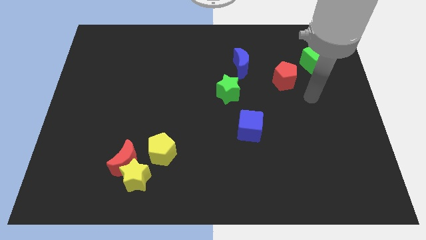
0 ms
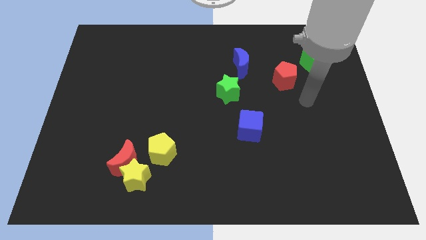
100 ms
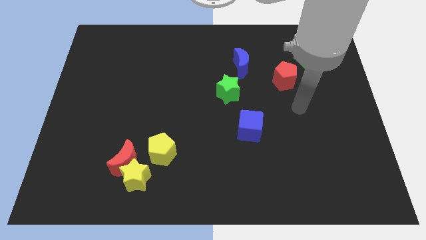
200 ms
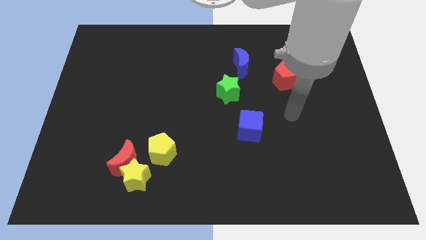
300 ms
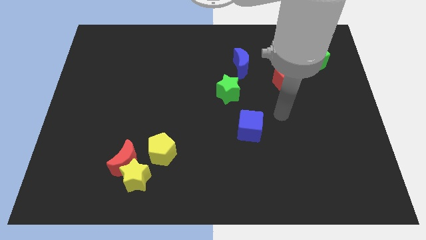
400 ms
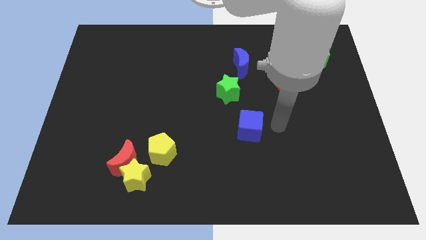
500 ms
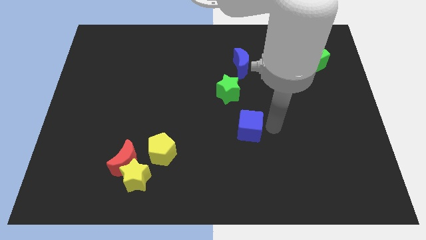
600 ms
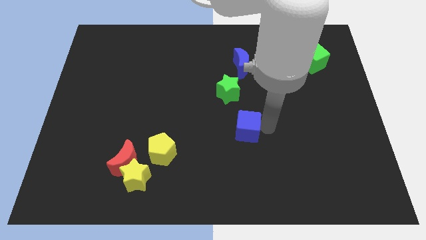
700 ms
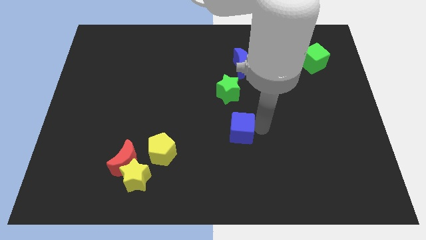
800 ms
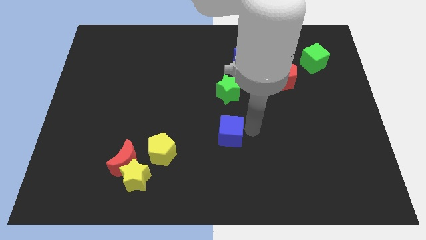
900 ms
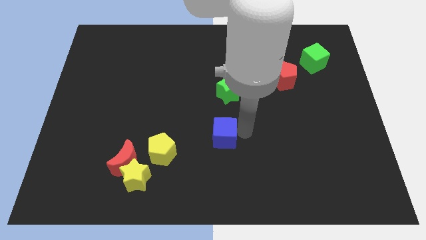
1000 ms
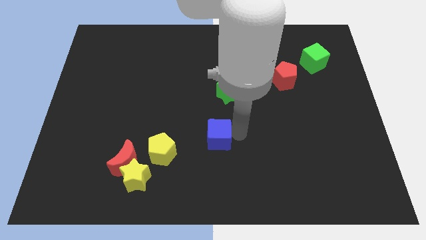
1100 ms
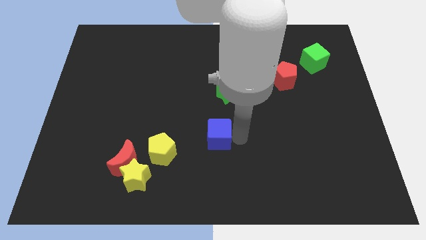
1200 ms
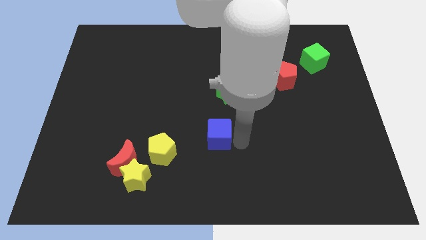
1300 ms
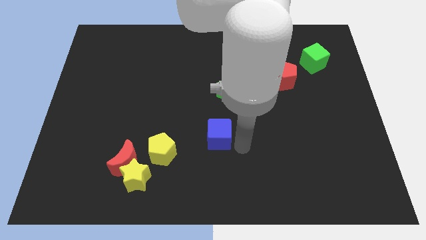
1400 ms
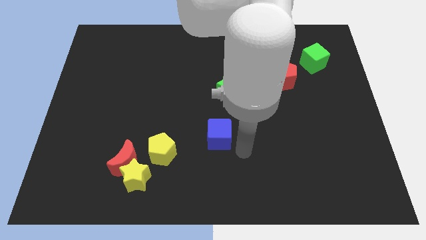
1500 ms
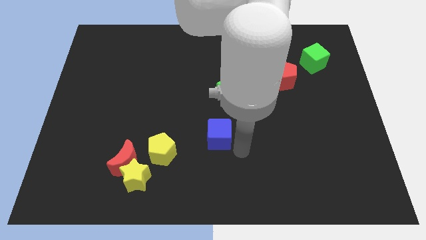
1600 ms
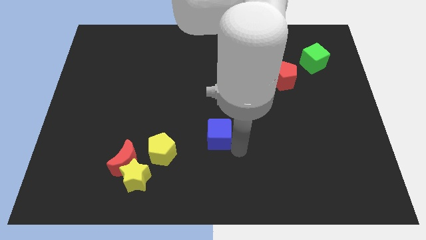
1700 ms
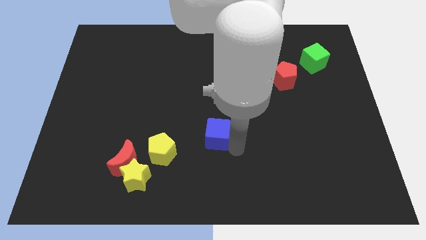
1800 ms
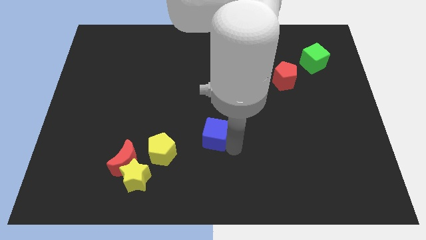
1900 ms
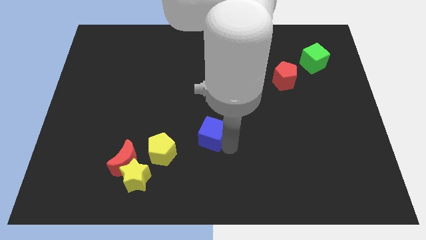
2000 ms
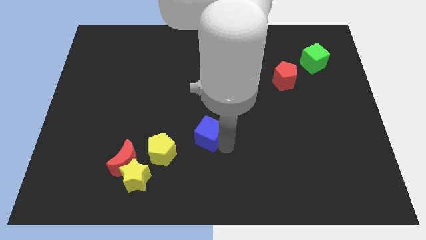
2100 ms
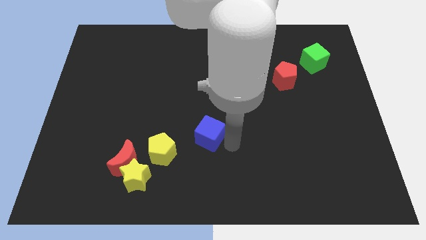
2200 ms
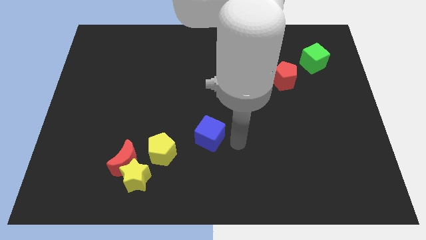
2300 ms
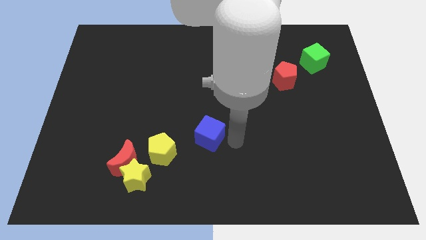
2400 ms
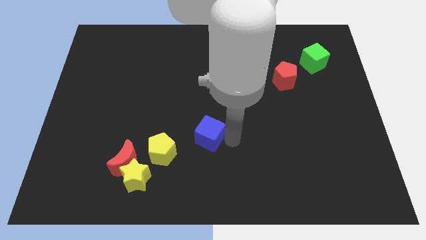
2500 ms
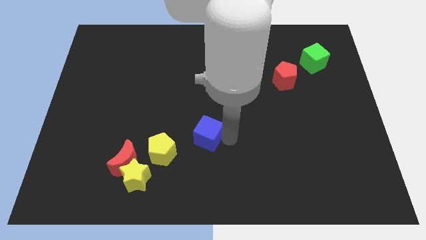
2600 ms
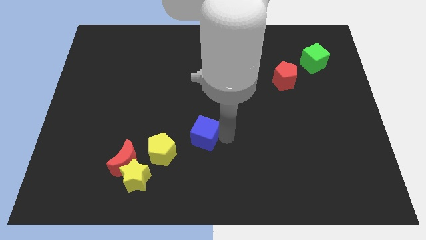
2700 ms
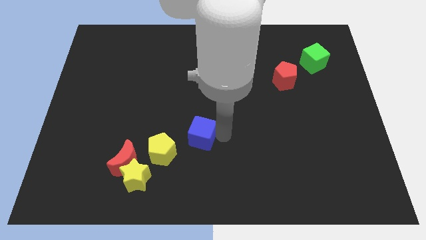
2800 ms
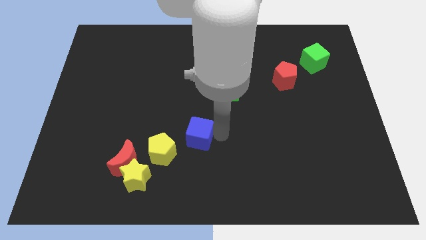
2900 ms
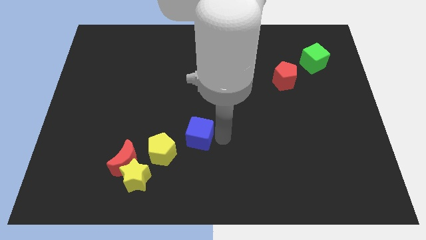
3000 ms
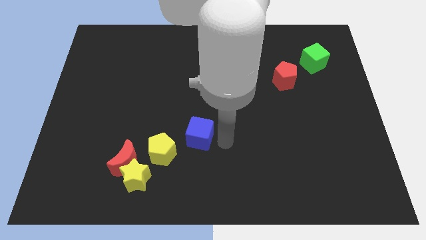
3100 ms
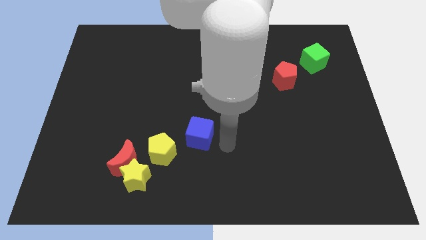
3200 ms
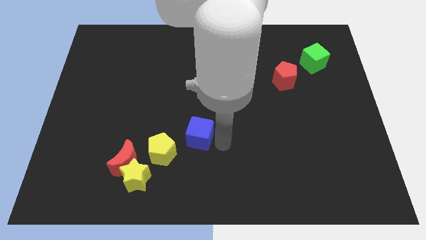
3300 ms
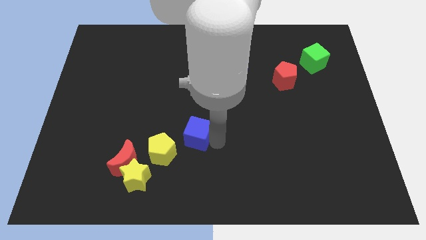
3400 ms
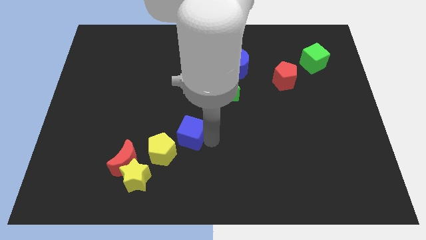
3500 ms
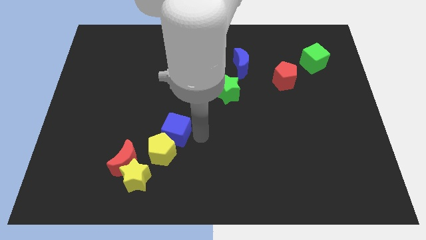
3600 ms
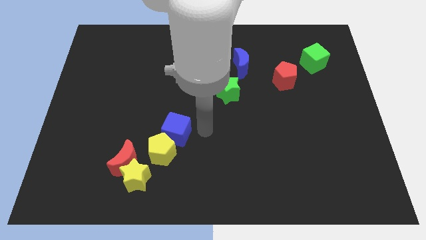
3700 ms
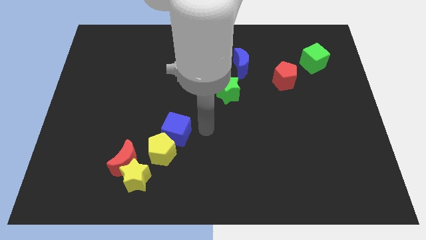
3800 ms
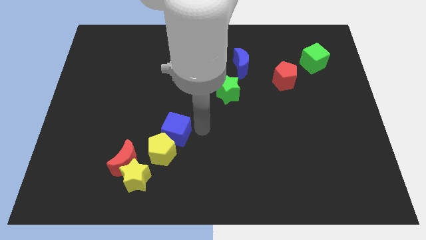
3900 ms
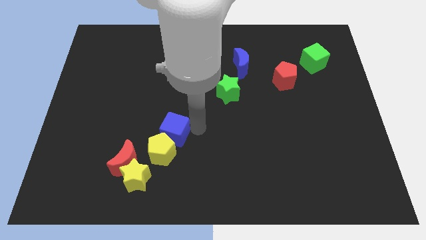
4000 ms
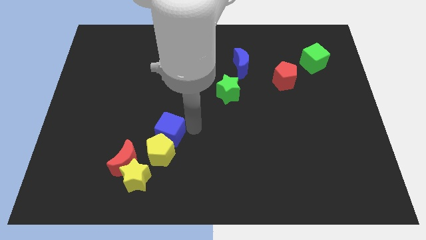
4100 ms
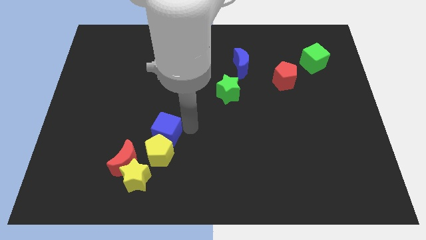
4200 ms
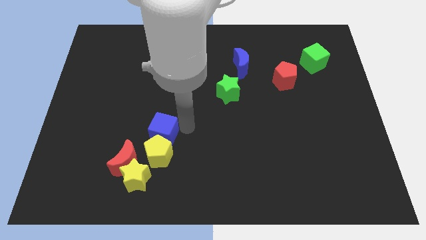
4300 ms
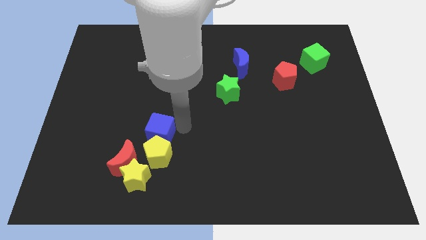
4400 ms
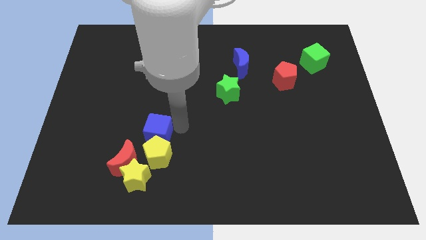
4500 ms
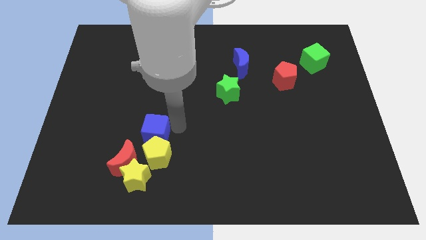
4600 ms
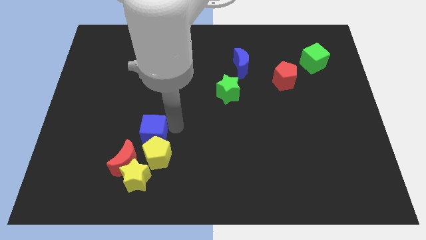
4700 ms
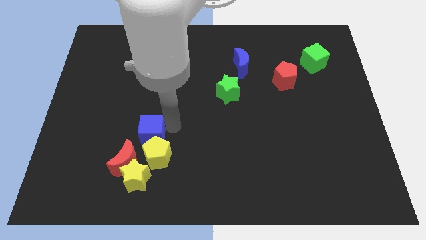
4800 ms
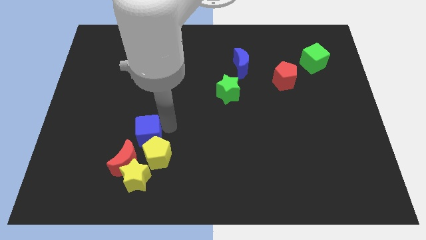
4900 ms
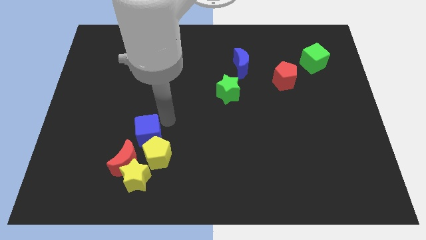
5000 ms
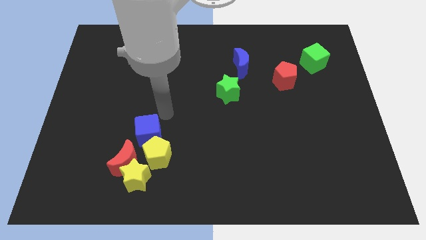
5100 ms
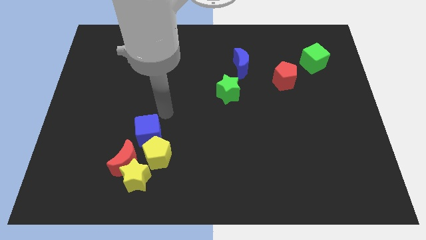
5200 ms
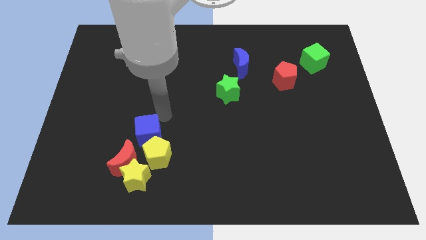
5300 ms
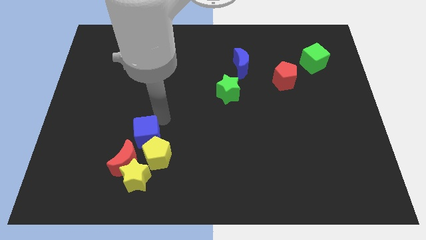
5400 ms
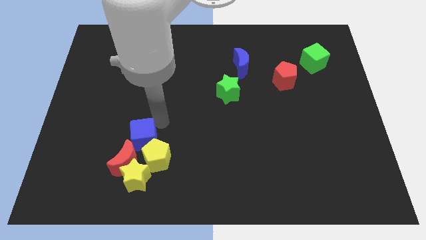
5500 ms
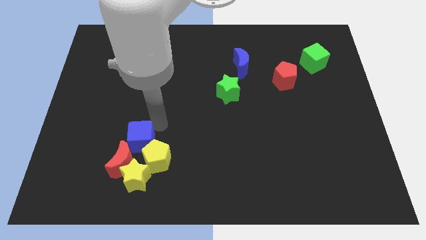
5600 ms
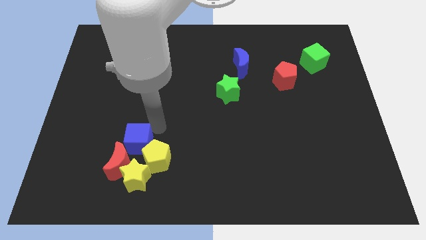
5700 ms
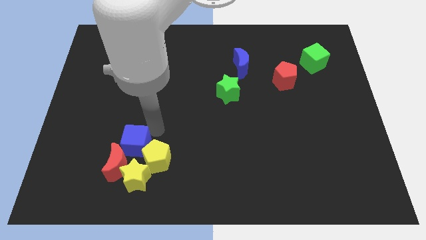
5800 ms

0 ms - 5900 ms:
slide the blue cube towards the red moon

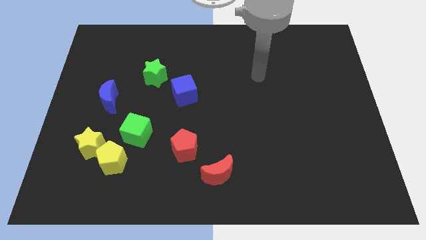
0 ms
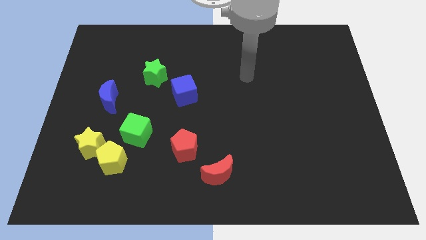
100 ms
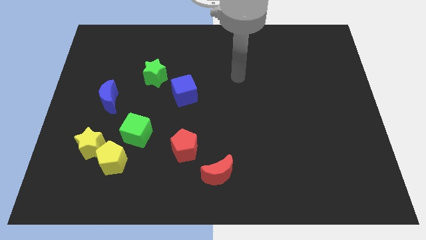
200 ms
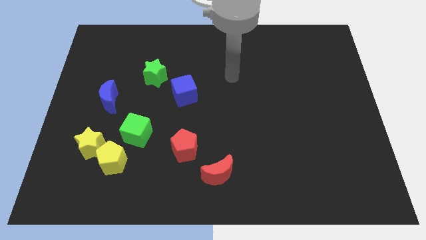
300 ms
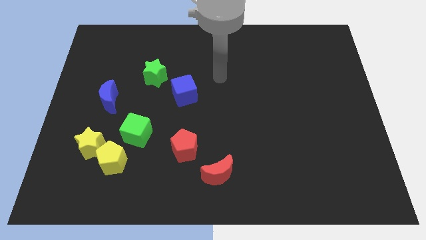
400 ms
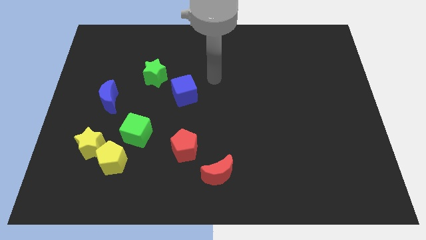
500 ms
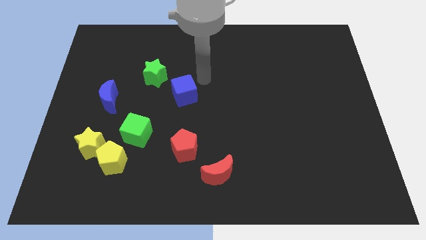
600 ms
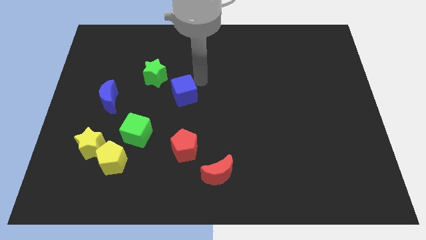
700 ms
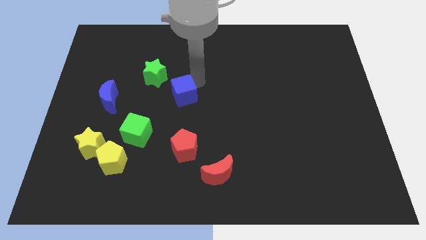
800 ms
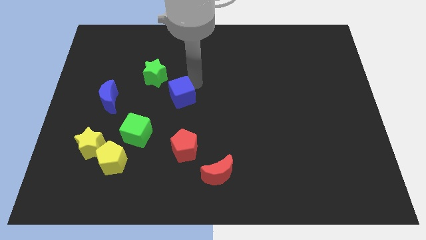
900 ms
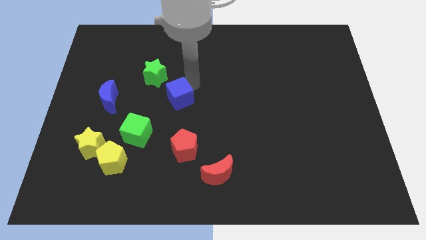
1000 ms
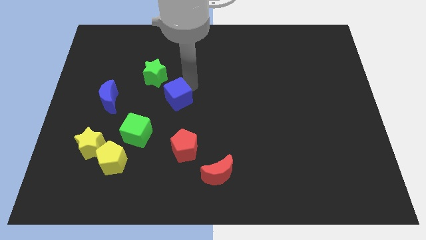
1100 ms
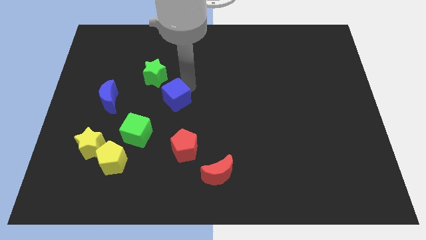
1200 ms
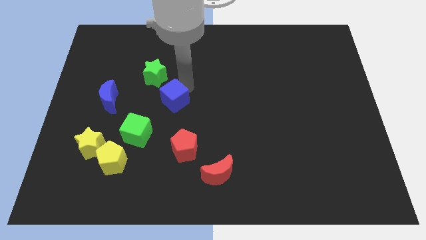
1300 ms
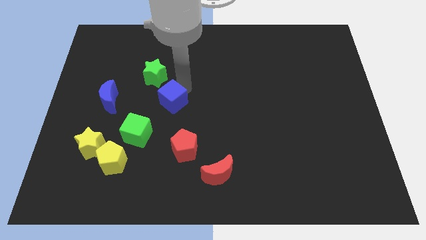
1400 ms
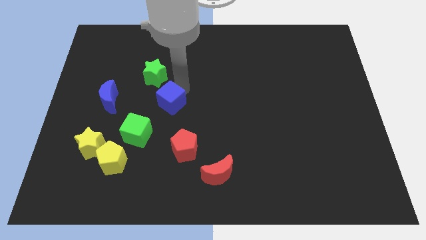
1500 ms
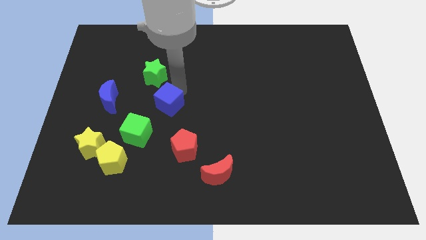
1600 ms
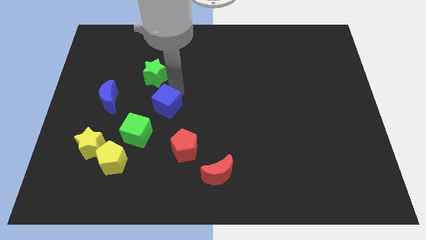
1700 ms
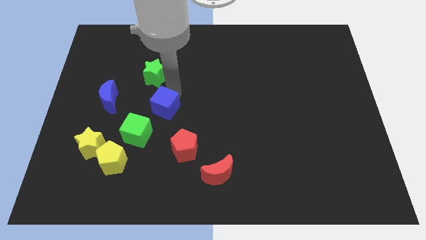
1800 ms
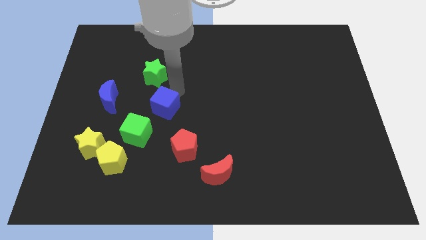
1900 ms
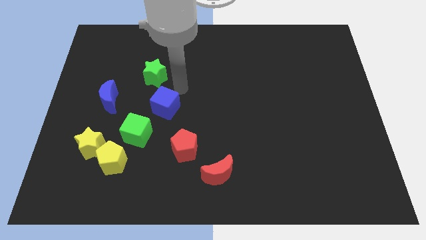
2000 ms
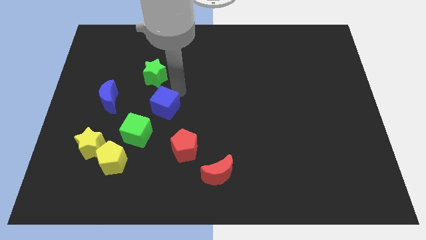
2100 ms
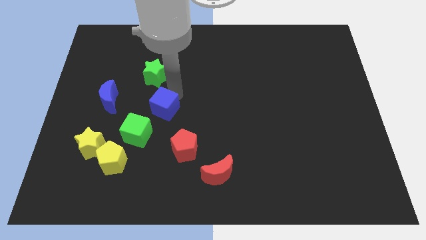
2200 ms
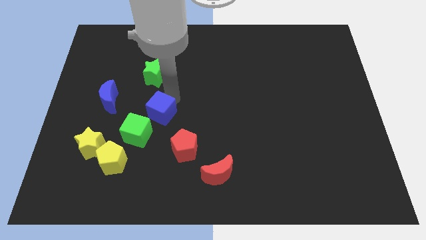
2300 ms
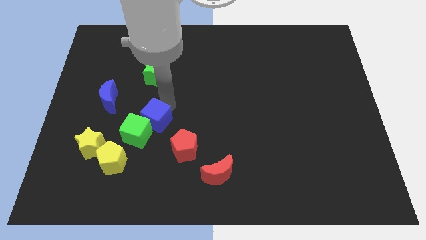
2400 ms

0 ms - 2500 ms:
move the blue cube towards the green cube
